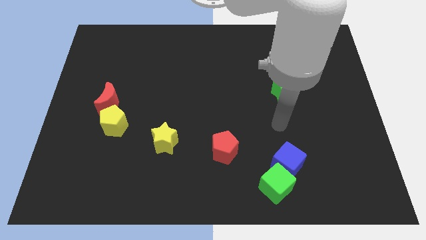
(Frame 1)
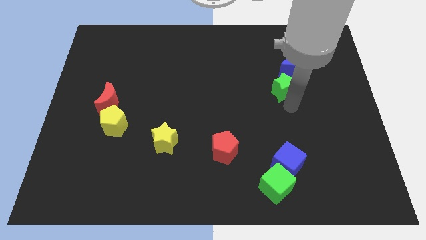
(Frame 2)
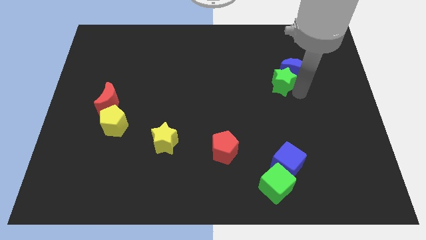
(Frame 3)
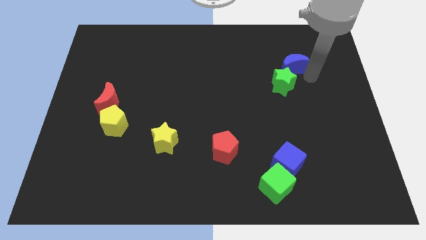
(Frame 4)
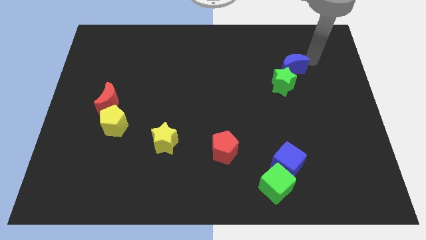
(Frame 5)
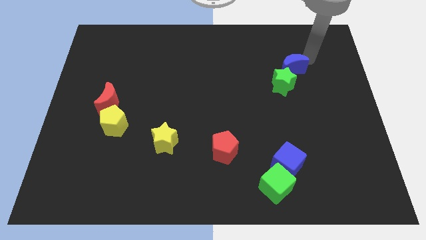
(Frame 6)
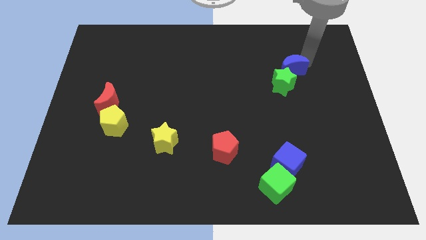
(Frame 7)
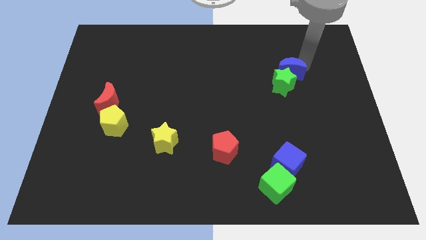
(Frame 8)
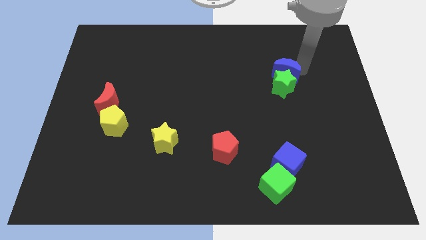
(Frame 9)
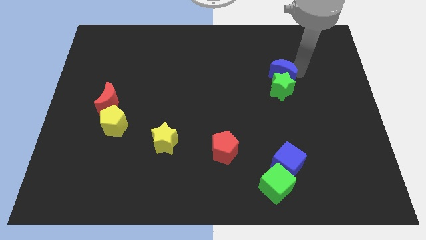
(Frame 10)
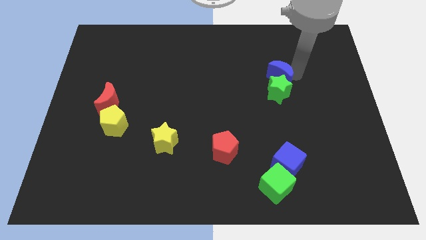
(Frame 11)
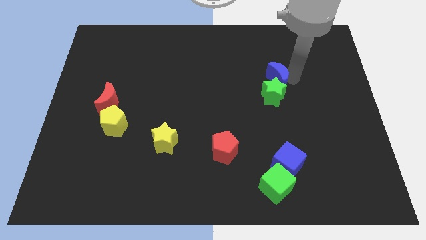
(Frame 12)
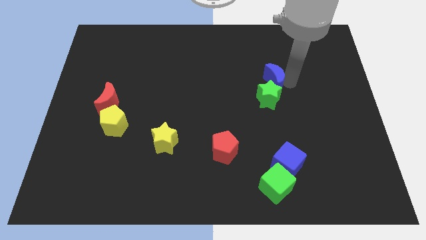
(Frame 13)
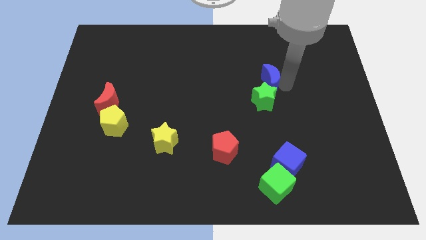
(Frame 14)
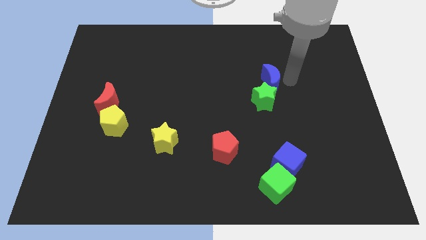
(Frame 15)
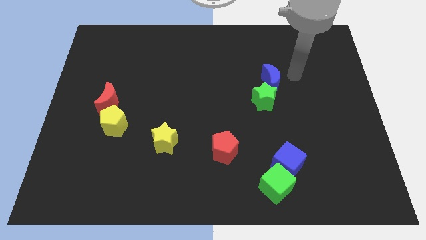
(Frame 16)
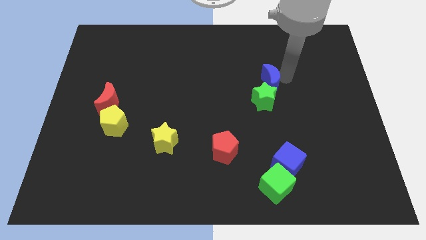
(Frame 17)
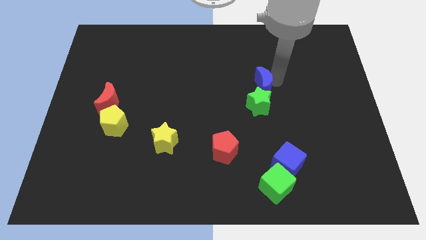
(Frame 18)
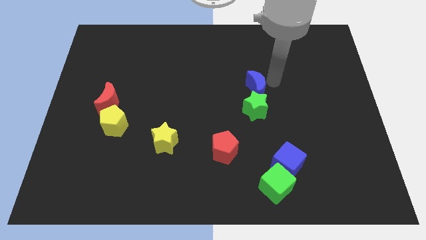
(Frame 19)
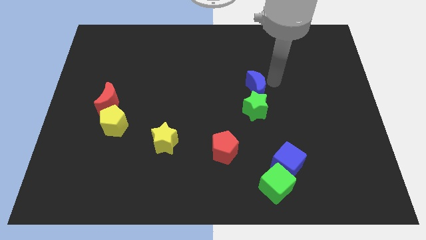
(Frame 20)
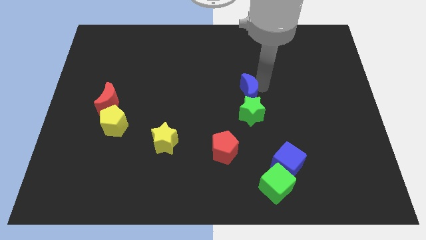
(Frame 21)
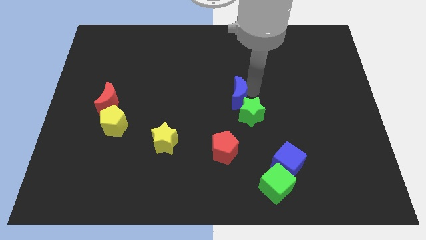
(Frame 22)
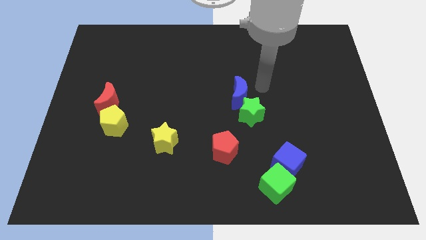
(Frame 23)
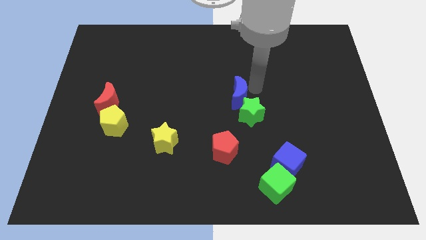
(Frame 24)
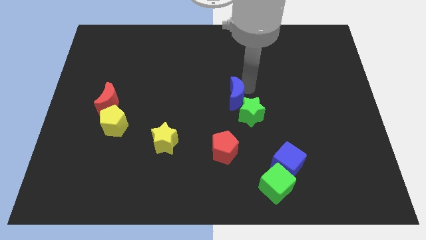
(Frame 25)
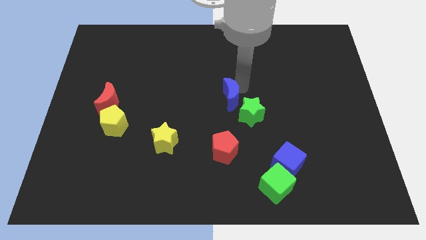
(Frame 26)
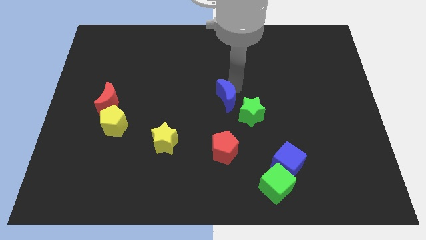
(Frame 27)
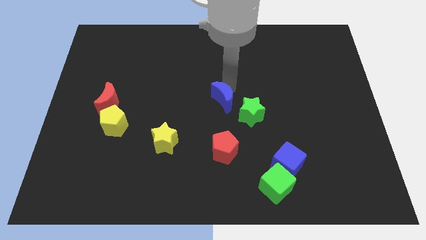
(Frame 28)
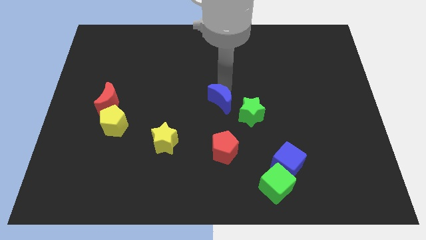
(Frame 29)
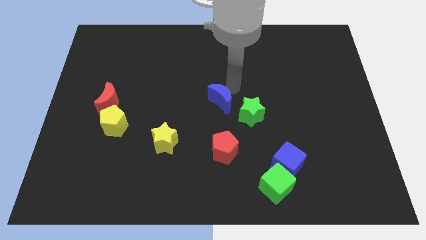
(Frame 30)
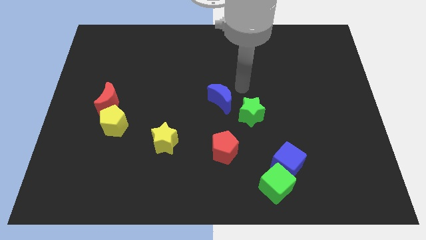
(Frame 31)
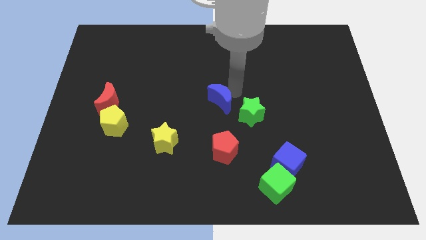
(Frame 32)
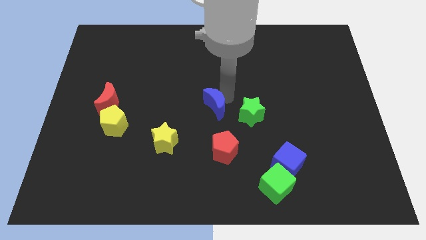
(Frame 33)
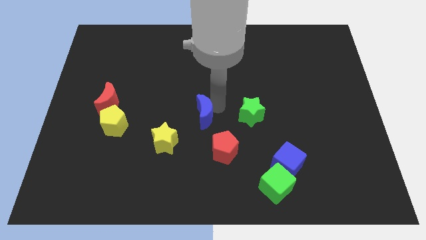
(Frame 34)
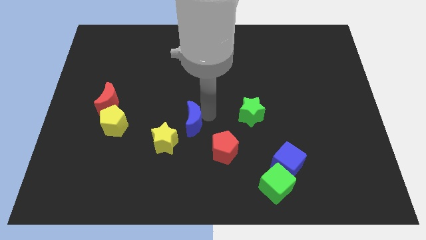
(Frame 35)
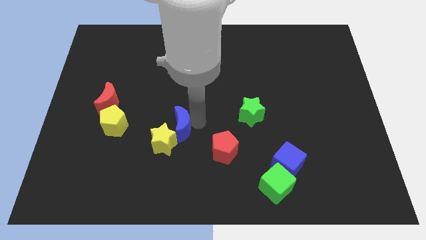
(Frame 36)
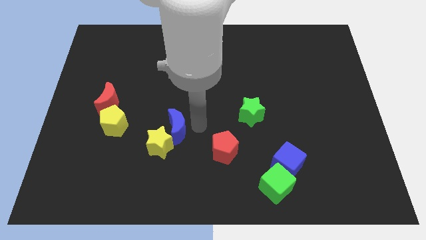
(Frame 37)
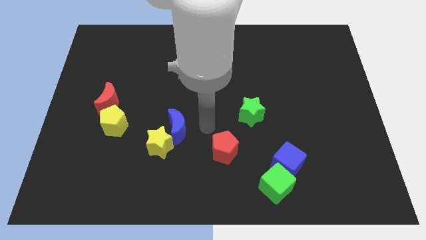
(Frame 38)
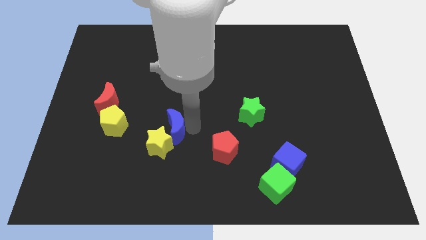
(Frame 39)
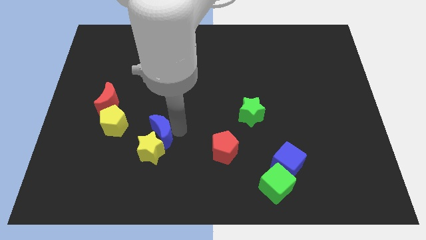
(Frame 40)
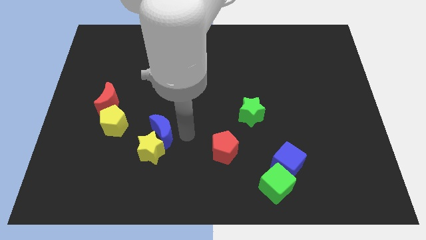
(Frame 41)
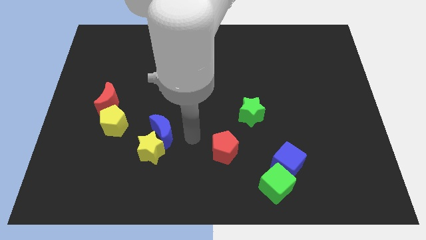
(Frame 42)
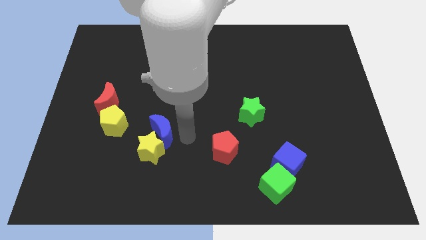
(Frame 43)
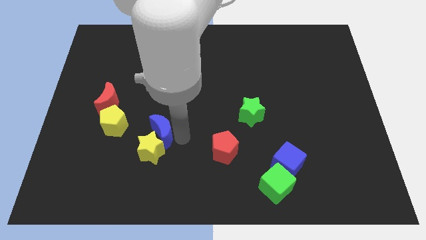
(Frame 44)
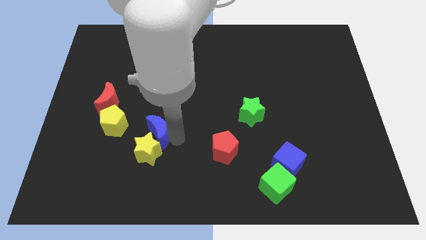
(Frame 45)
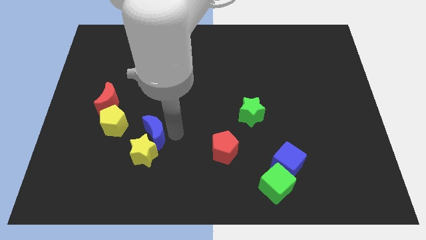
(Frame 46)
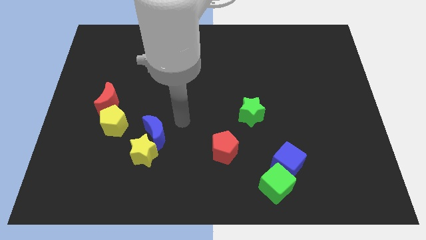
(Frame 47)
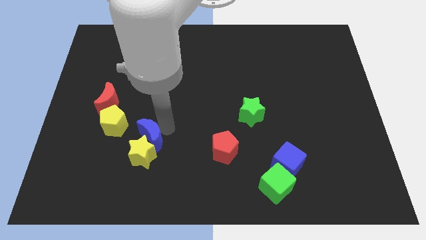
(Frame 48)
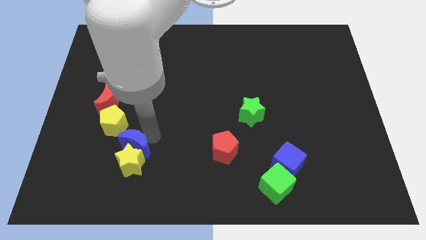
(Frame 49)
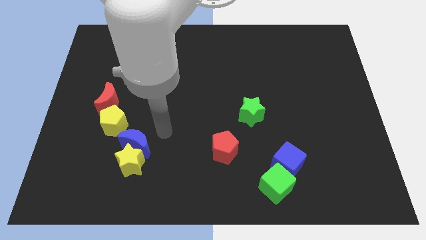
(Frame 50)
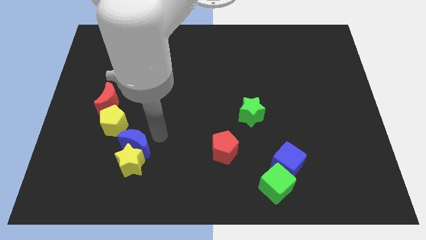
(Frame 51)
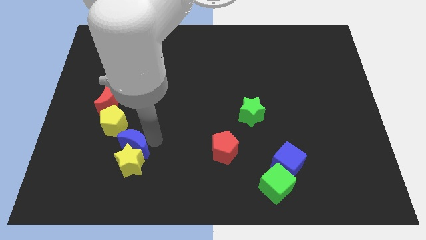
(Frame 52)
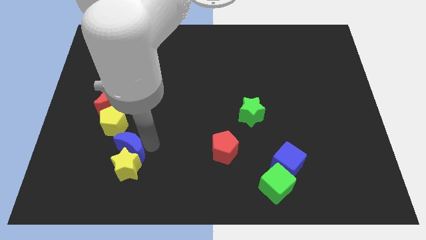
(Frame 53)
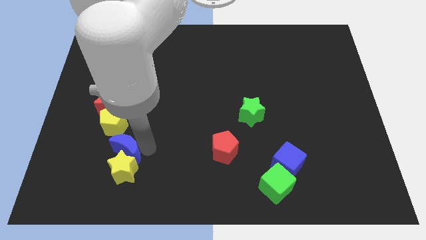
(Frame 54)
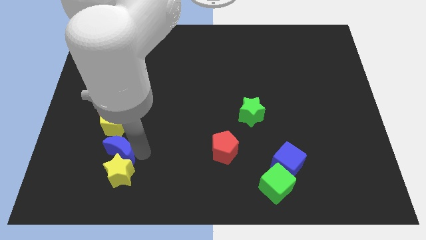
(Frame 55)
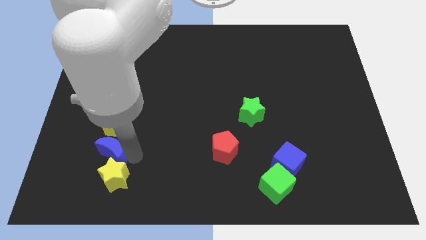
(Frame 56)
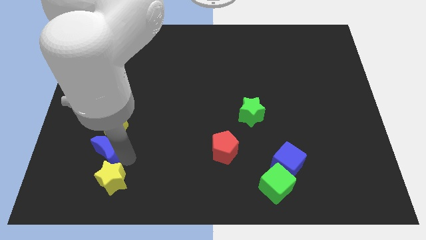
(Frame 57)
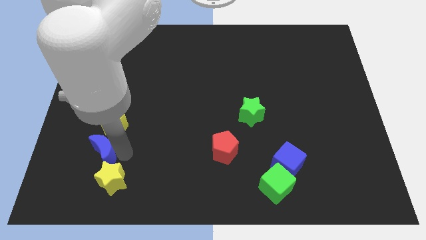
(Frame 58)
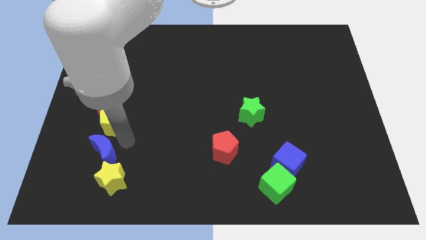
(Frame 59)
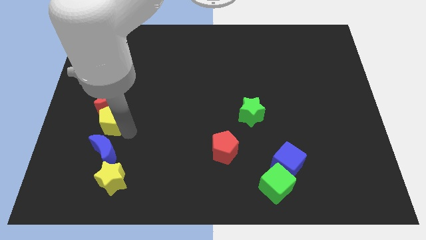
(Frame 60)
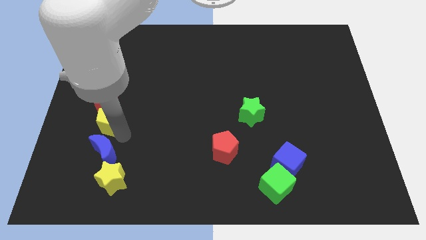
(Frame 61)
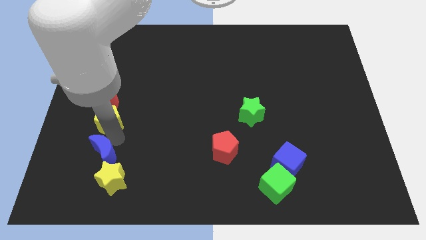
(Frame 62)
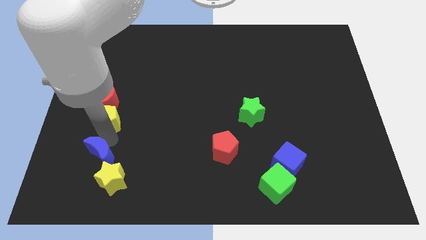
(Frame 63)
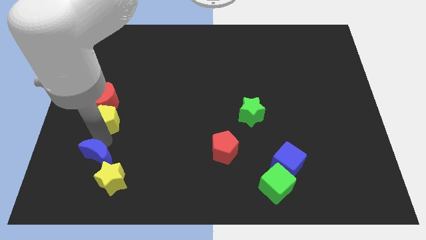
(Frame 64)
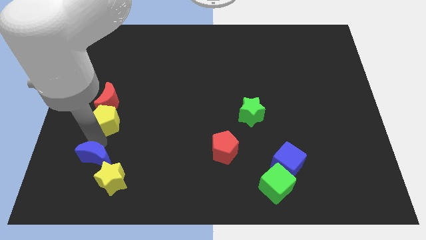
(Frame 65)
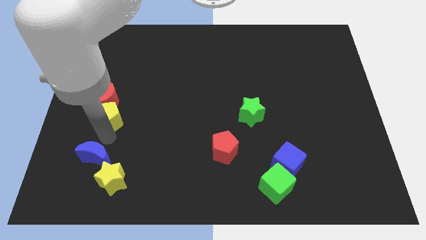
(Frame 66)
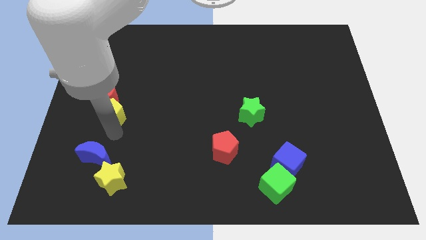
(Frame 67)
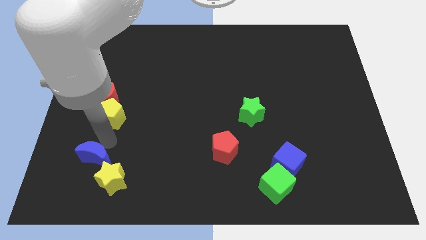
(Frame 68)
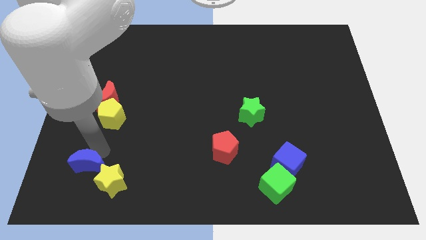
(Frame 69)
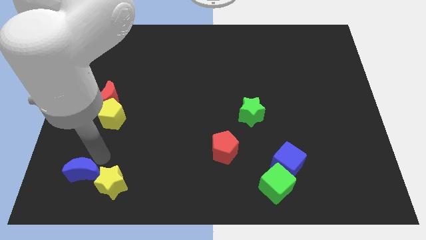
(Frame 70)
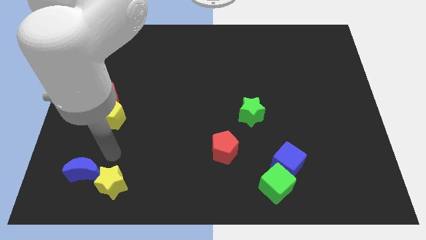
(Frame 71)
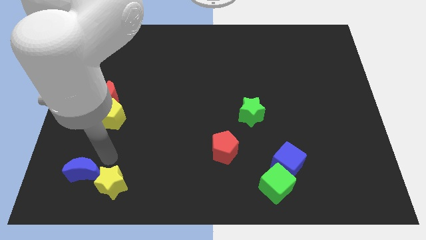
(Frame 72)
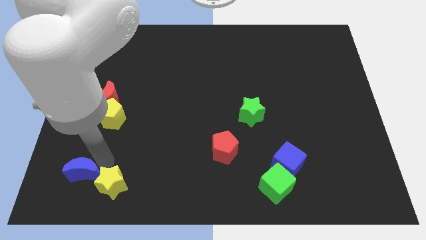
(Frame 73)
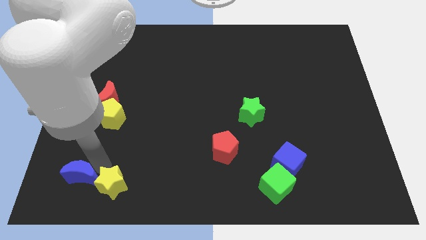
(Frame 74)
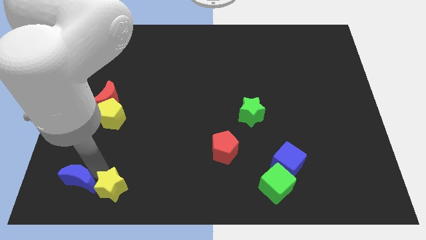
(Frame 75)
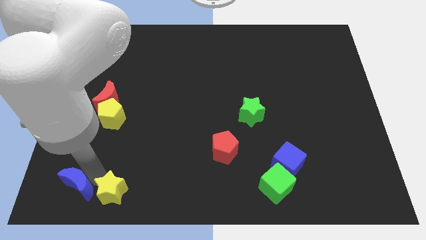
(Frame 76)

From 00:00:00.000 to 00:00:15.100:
put the blue moon to the bottom left
